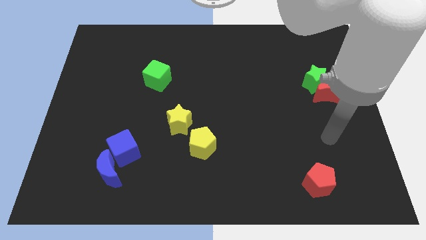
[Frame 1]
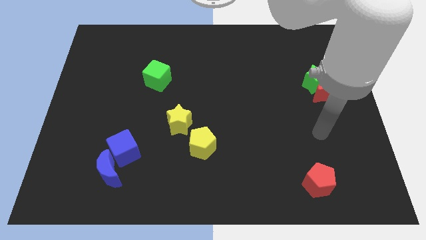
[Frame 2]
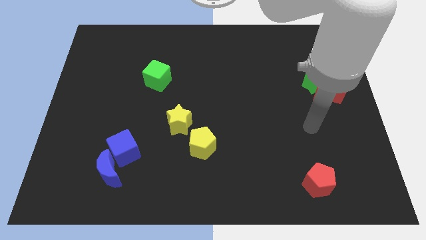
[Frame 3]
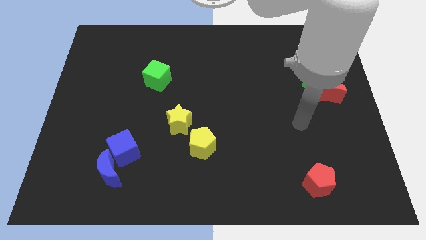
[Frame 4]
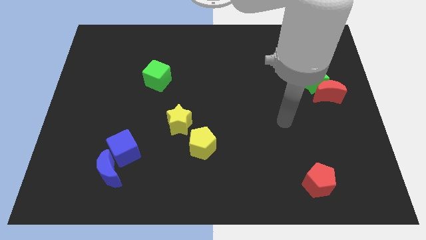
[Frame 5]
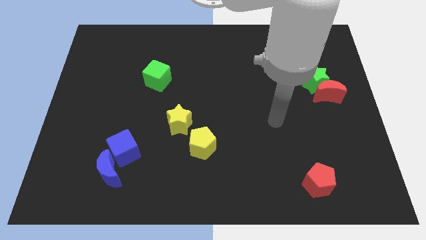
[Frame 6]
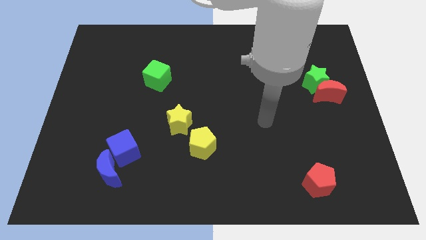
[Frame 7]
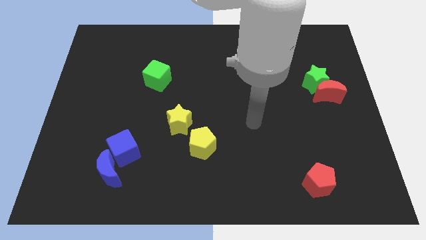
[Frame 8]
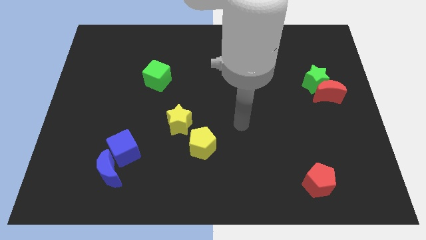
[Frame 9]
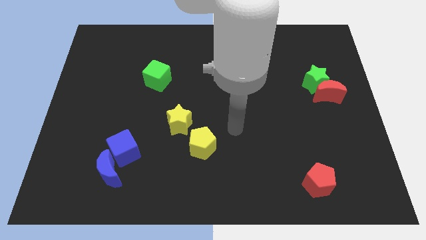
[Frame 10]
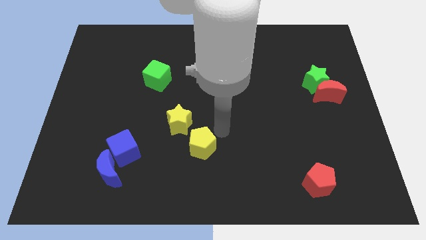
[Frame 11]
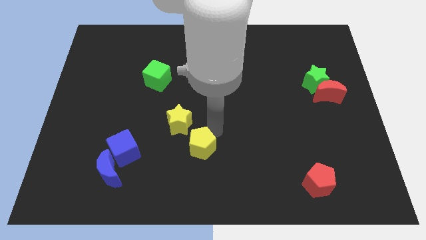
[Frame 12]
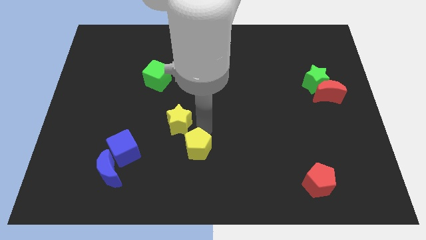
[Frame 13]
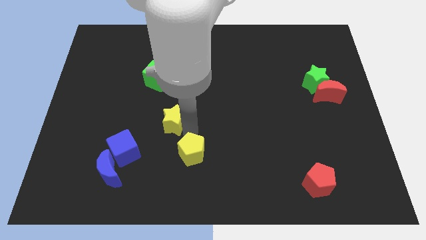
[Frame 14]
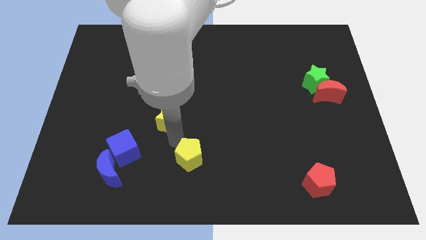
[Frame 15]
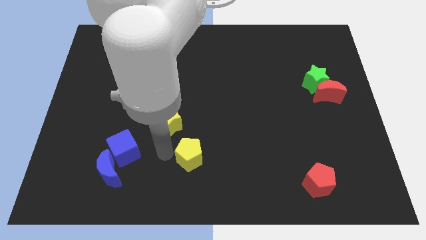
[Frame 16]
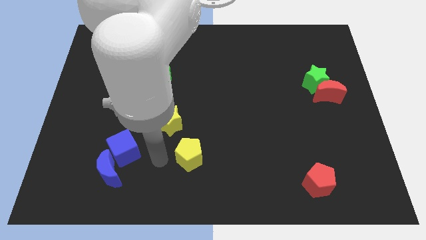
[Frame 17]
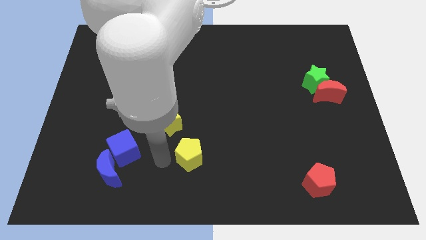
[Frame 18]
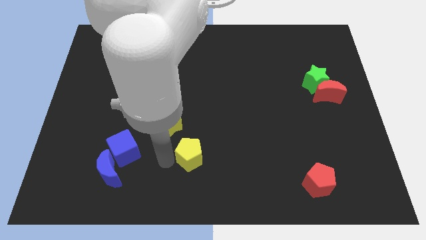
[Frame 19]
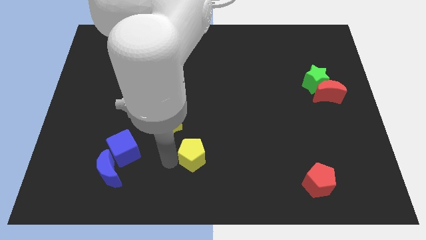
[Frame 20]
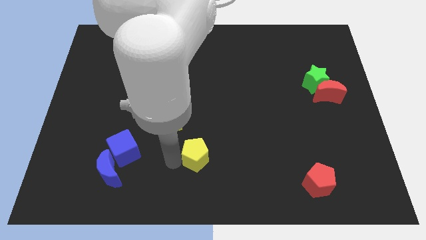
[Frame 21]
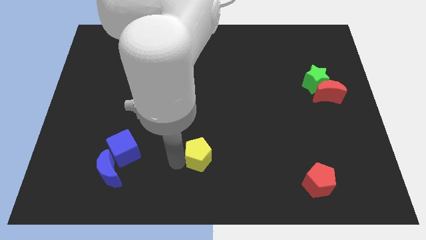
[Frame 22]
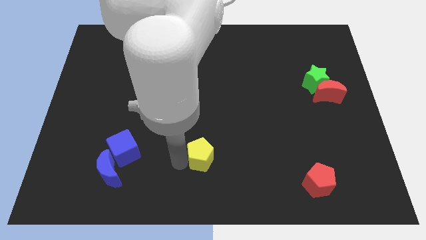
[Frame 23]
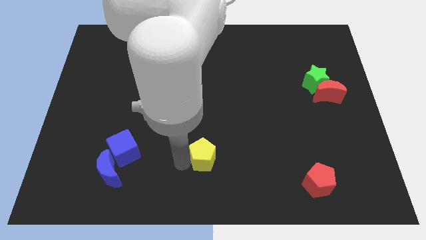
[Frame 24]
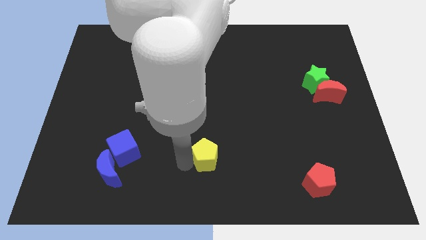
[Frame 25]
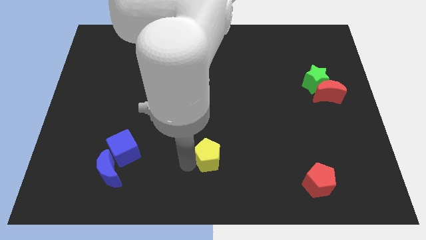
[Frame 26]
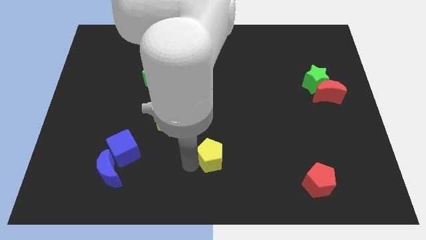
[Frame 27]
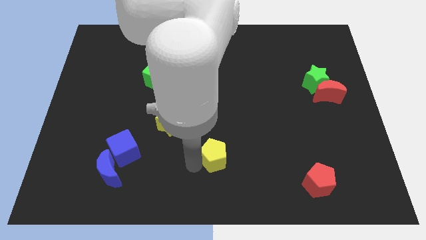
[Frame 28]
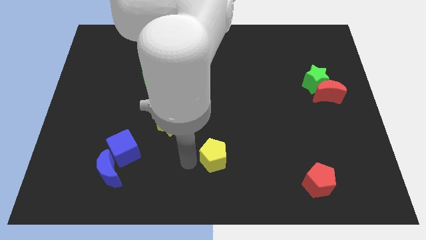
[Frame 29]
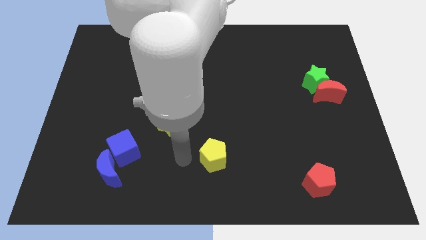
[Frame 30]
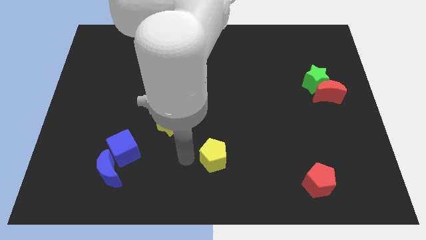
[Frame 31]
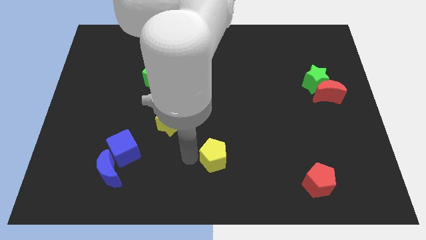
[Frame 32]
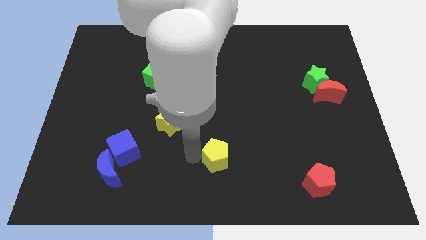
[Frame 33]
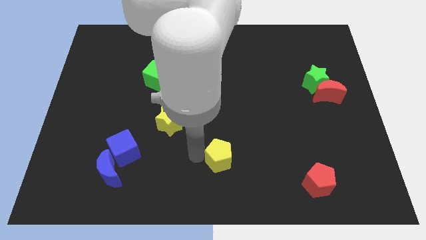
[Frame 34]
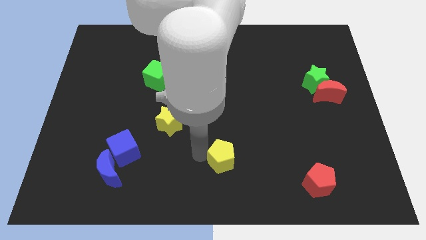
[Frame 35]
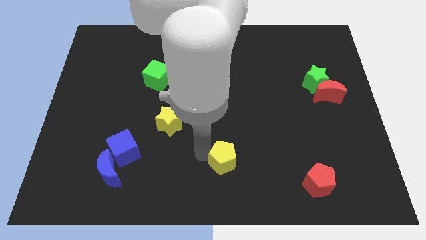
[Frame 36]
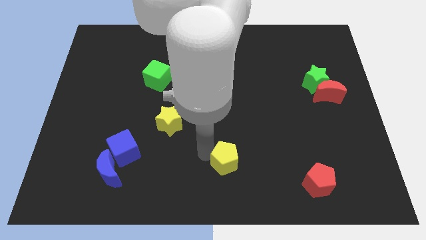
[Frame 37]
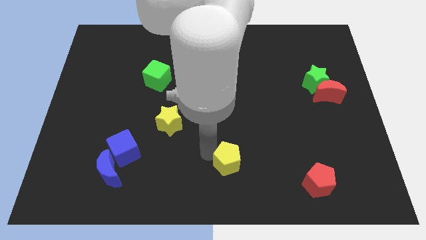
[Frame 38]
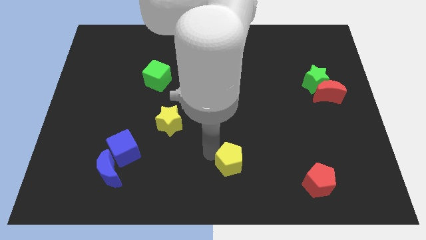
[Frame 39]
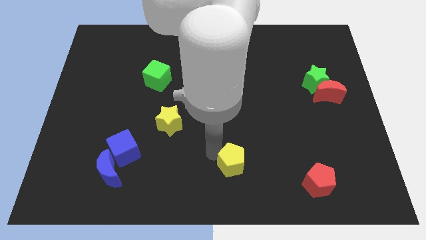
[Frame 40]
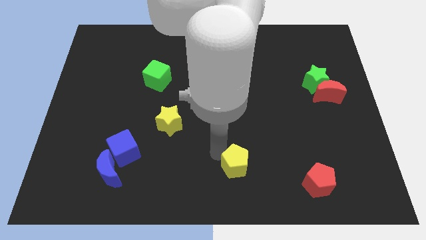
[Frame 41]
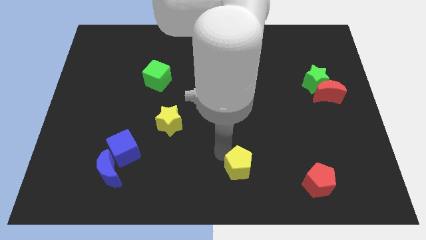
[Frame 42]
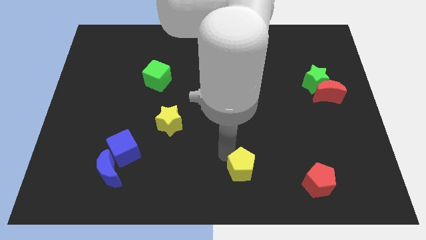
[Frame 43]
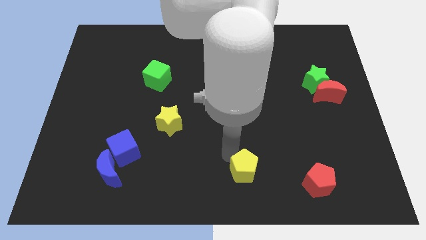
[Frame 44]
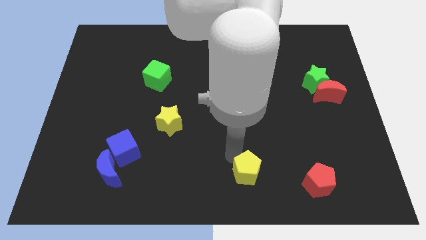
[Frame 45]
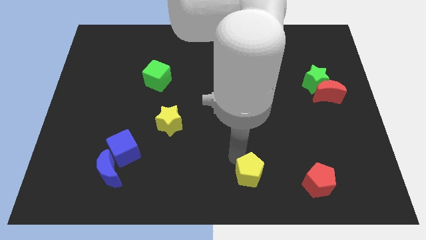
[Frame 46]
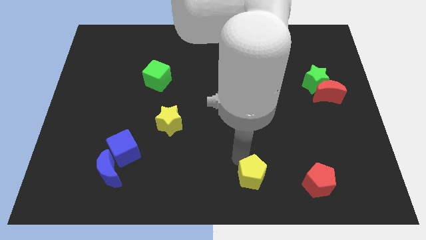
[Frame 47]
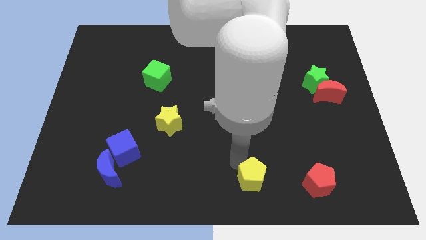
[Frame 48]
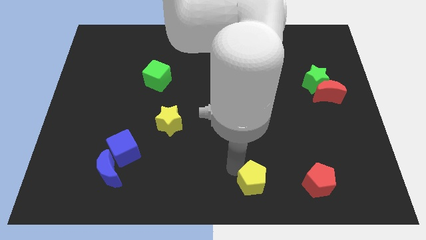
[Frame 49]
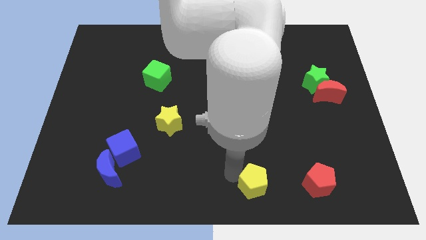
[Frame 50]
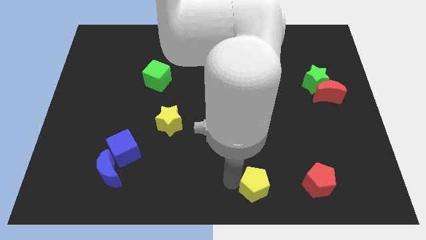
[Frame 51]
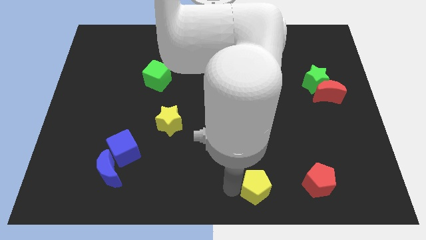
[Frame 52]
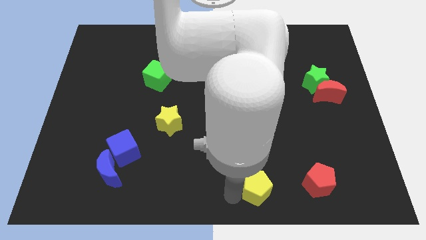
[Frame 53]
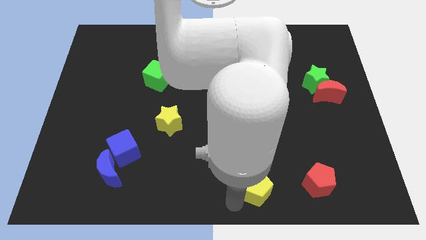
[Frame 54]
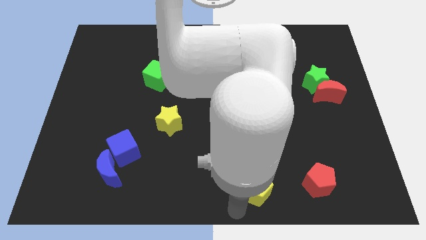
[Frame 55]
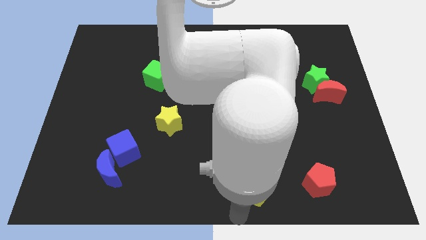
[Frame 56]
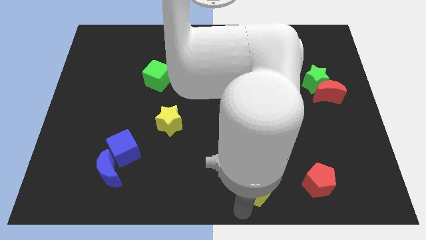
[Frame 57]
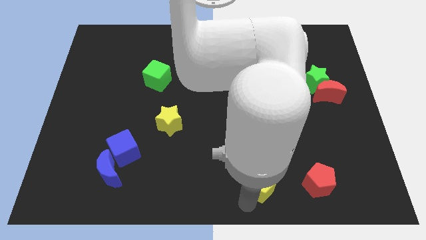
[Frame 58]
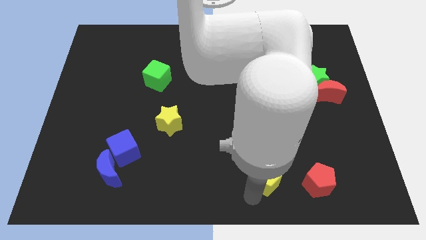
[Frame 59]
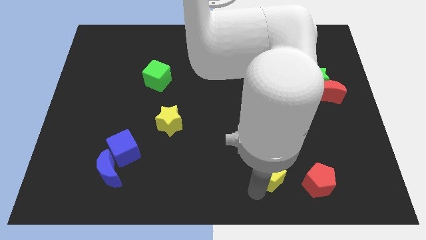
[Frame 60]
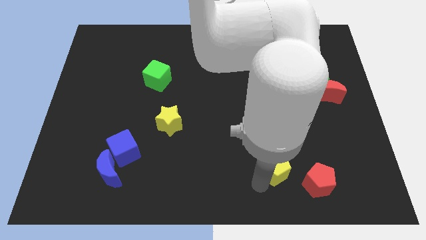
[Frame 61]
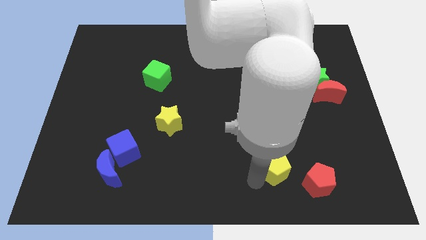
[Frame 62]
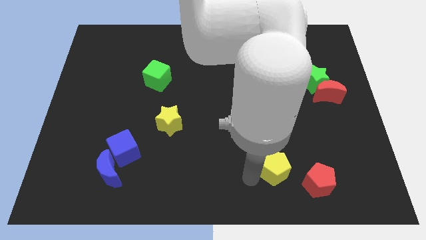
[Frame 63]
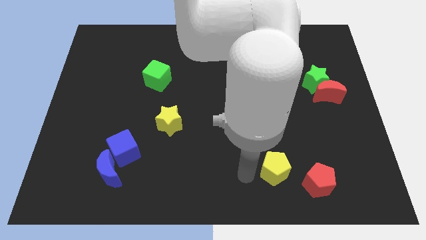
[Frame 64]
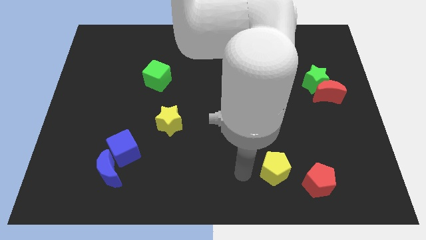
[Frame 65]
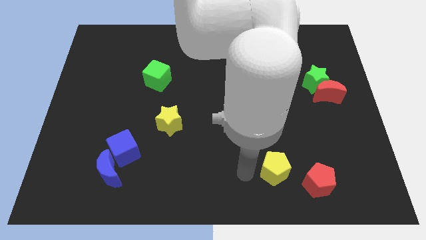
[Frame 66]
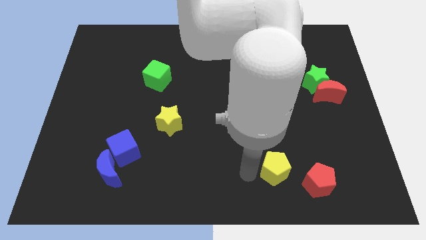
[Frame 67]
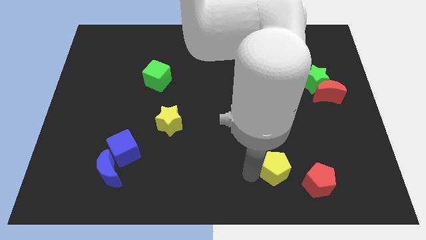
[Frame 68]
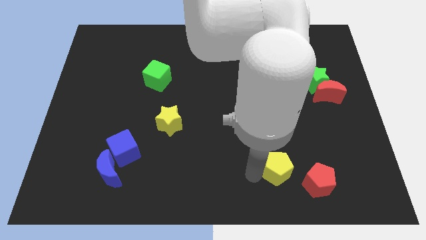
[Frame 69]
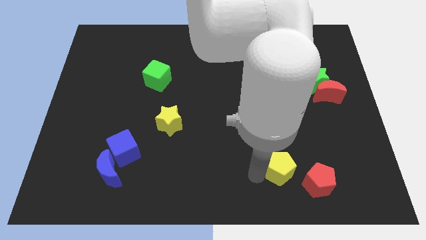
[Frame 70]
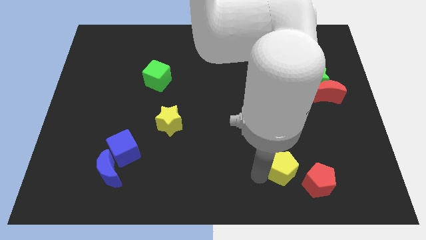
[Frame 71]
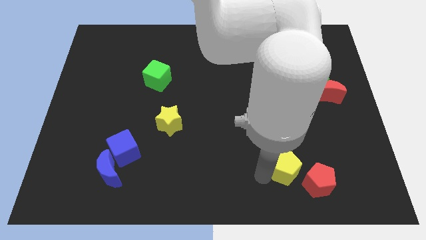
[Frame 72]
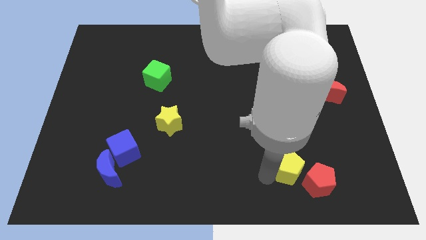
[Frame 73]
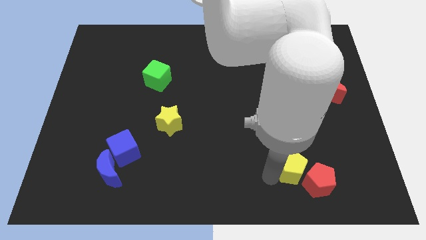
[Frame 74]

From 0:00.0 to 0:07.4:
slide the yellow pentagon to the red pentagon
